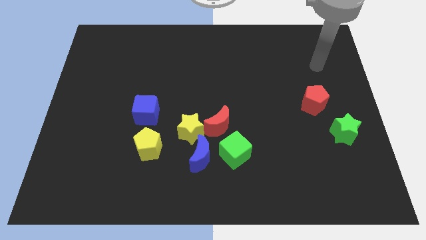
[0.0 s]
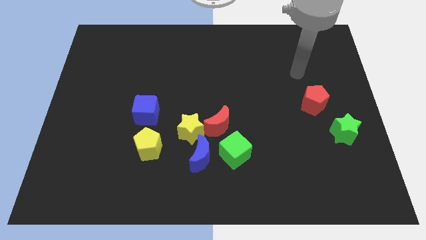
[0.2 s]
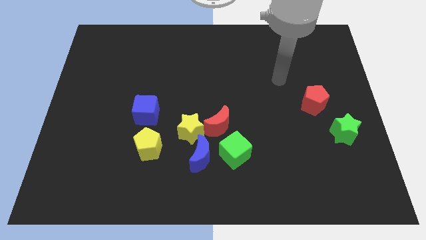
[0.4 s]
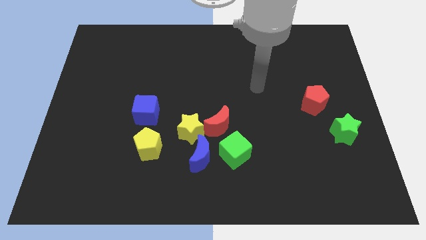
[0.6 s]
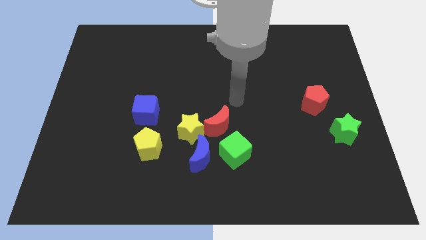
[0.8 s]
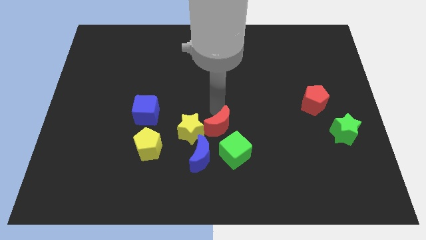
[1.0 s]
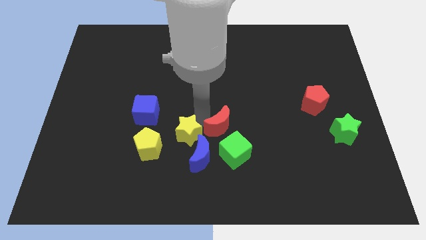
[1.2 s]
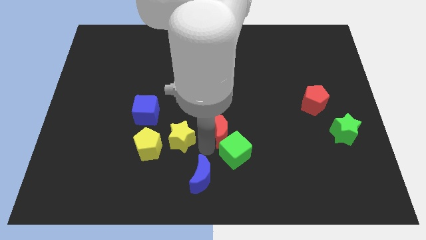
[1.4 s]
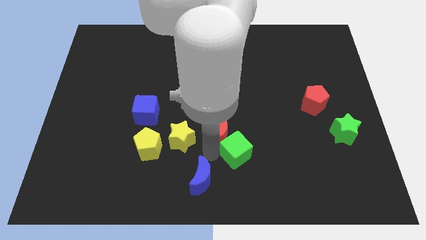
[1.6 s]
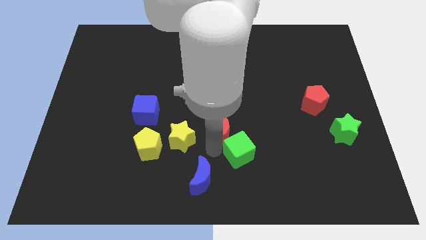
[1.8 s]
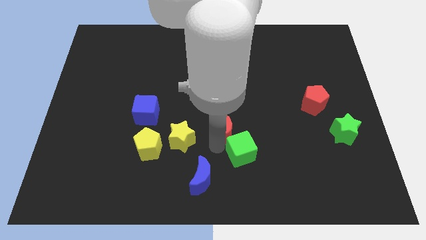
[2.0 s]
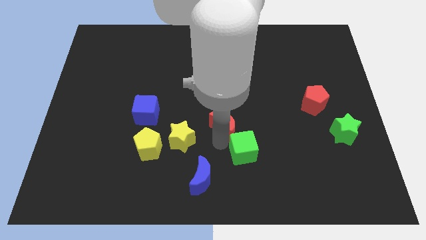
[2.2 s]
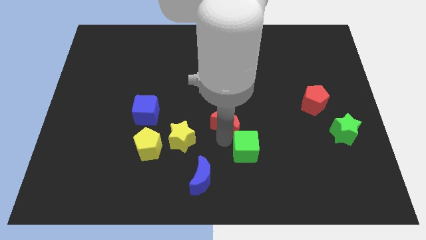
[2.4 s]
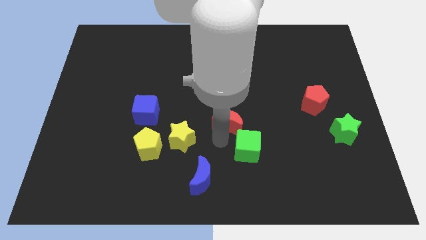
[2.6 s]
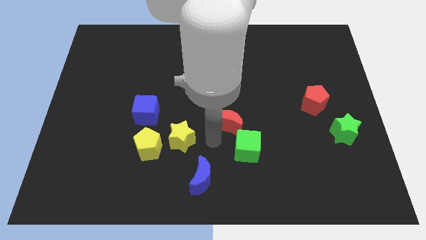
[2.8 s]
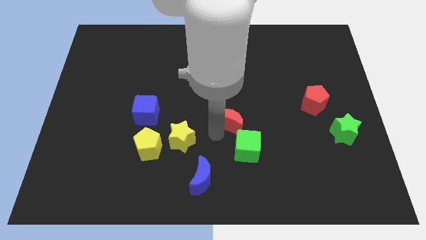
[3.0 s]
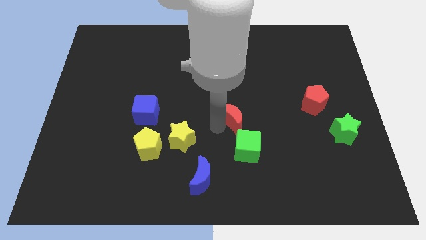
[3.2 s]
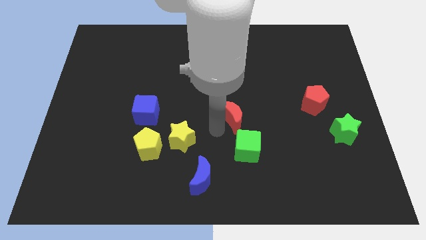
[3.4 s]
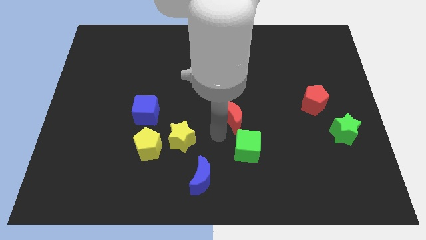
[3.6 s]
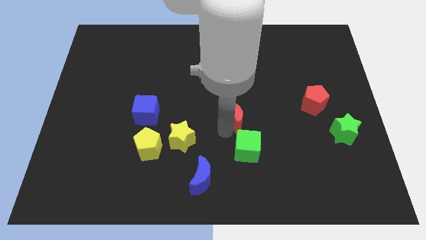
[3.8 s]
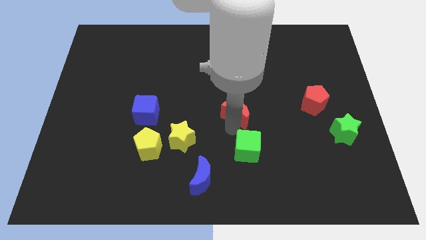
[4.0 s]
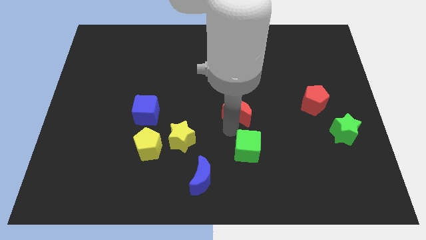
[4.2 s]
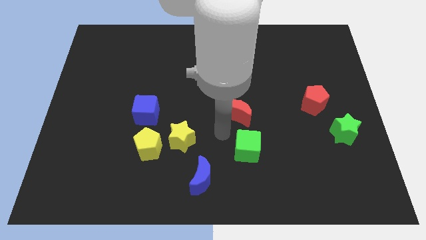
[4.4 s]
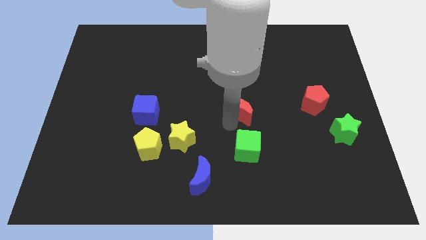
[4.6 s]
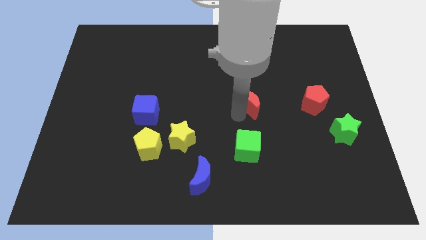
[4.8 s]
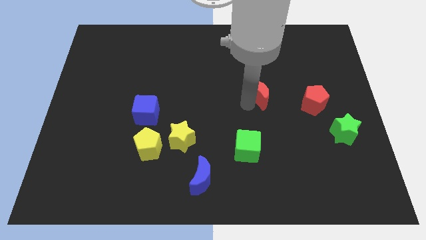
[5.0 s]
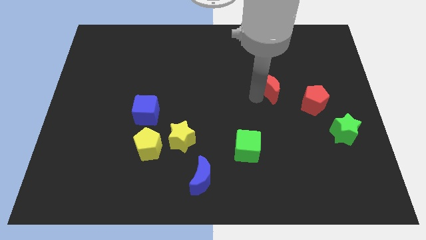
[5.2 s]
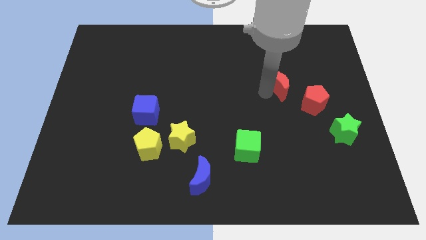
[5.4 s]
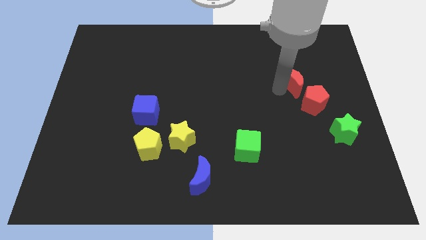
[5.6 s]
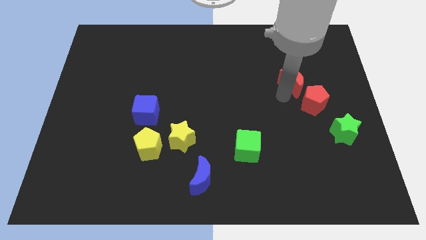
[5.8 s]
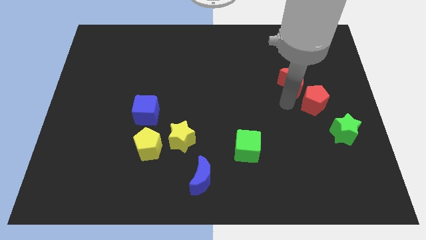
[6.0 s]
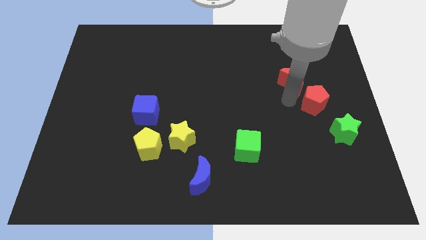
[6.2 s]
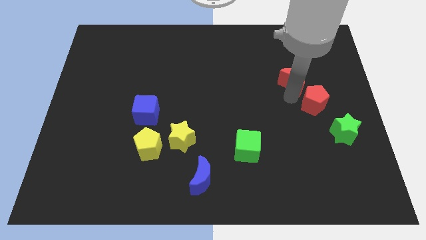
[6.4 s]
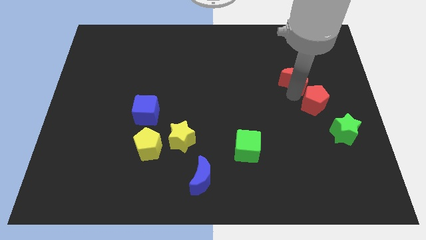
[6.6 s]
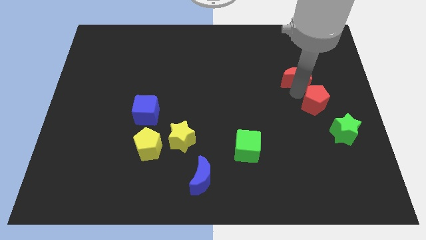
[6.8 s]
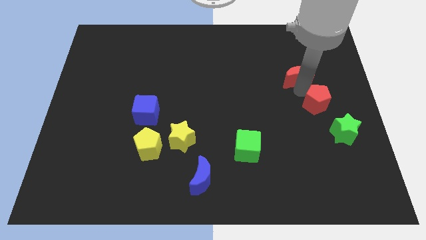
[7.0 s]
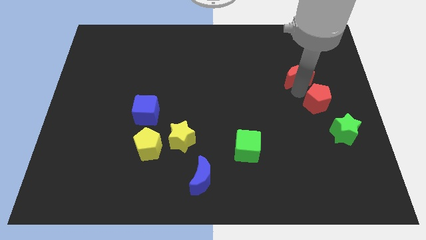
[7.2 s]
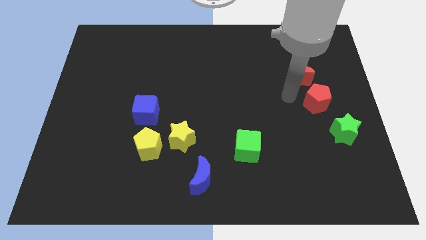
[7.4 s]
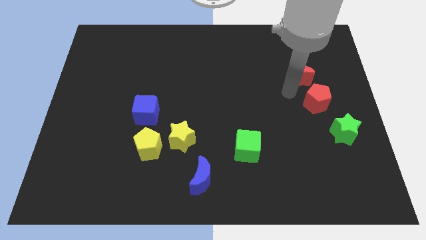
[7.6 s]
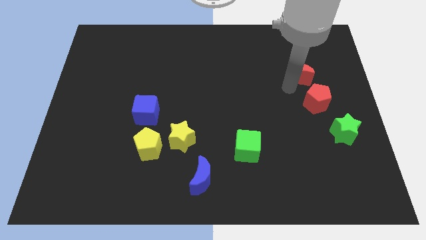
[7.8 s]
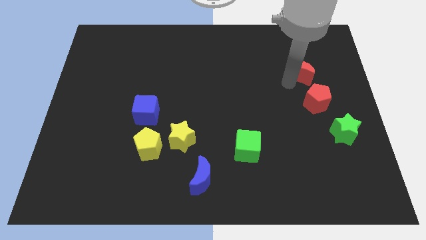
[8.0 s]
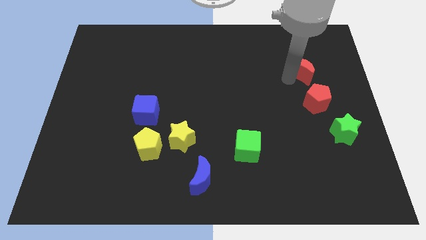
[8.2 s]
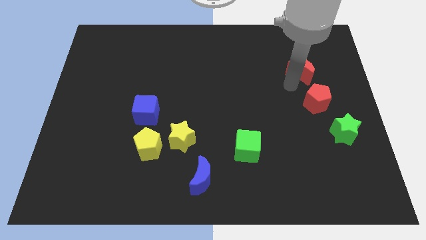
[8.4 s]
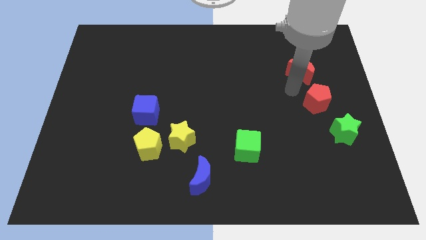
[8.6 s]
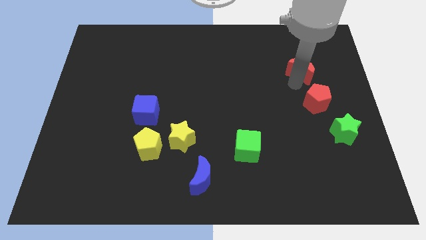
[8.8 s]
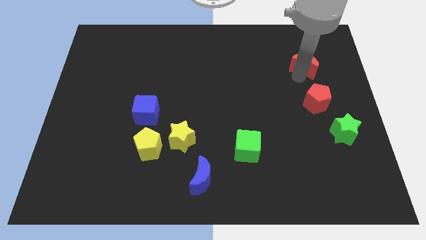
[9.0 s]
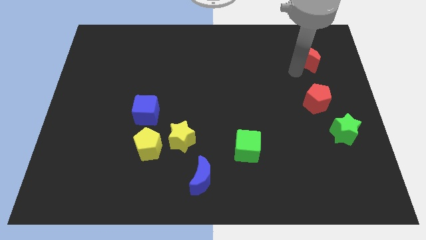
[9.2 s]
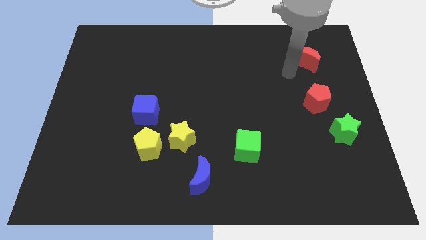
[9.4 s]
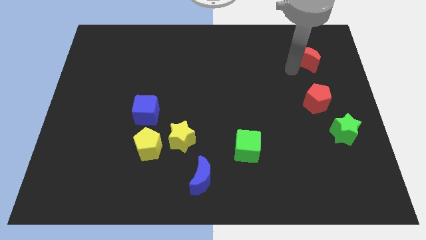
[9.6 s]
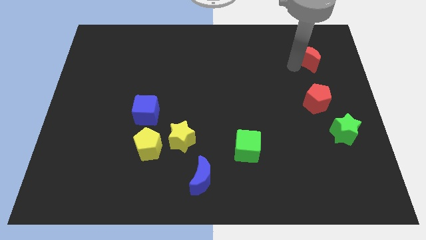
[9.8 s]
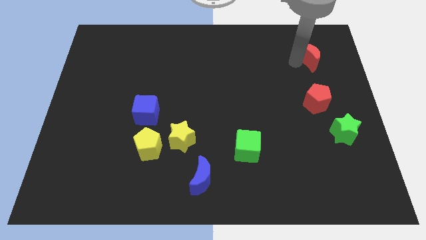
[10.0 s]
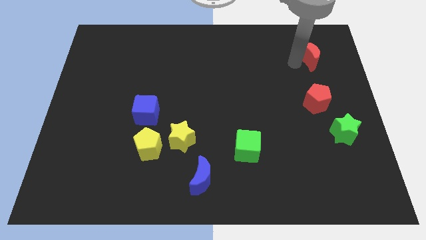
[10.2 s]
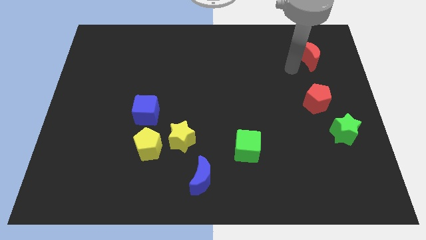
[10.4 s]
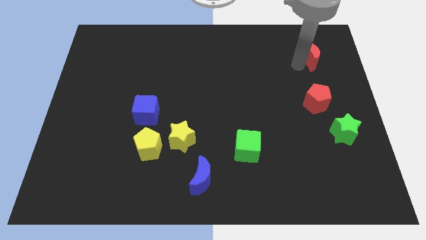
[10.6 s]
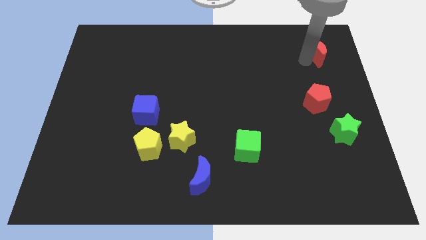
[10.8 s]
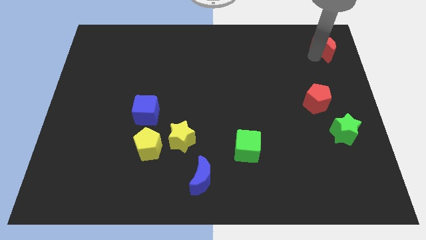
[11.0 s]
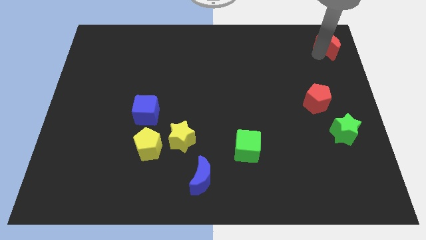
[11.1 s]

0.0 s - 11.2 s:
push the red moon to the top right

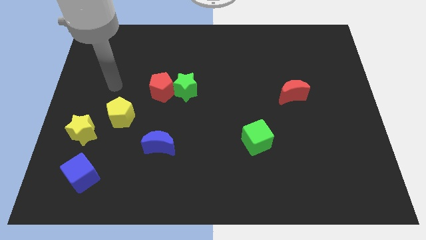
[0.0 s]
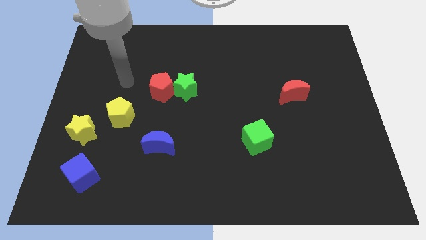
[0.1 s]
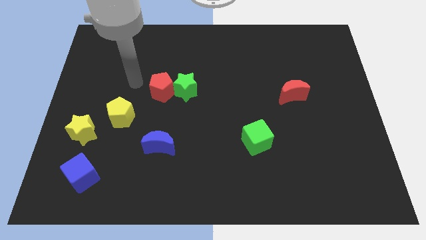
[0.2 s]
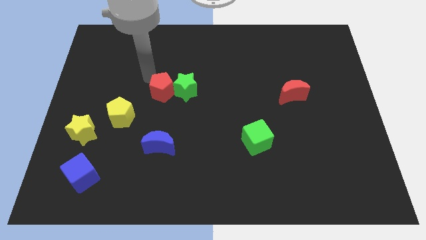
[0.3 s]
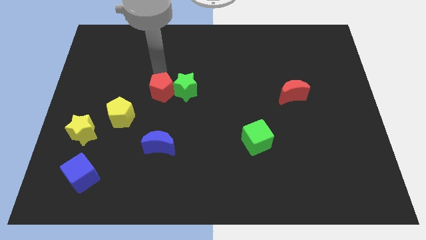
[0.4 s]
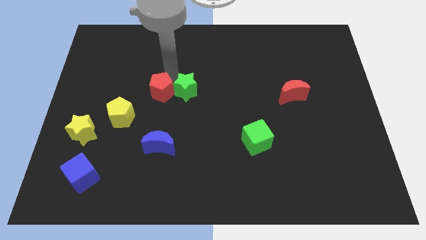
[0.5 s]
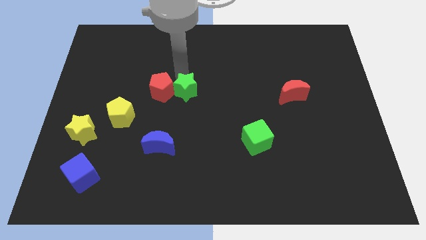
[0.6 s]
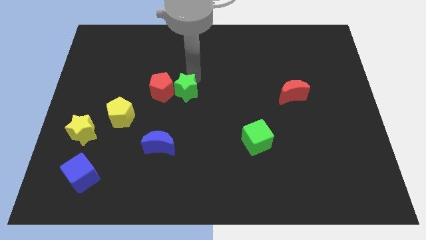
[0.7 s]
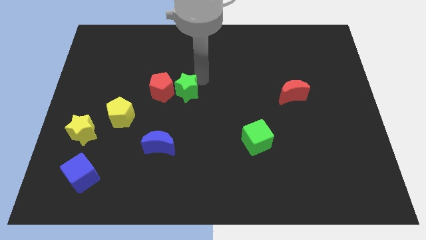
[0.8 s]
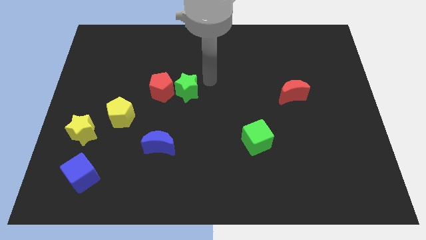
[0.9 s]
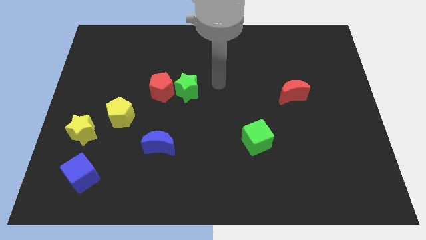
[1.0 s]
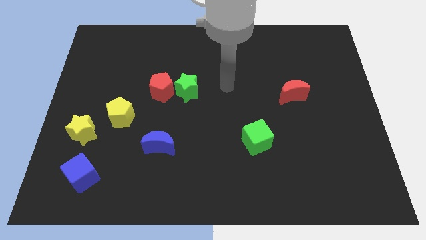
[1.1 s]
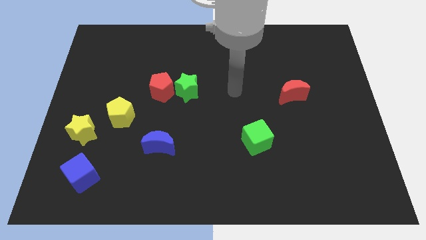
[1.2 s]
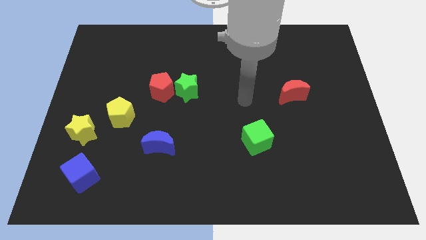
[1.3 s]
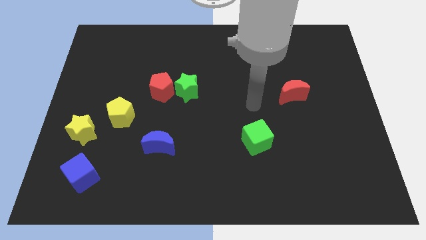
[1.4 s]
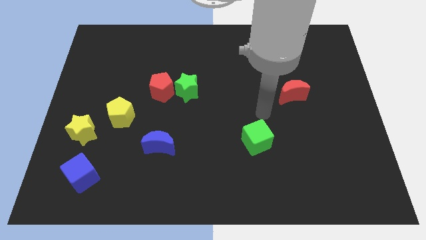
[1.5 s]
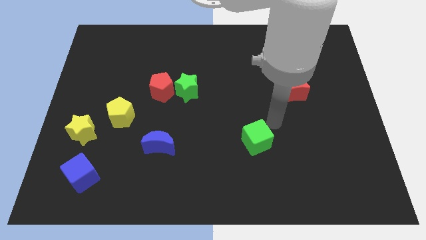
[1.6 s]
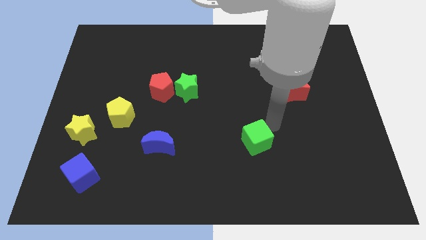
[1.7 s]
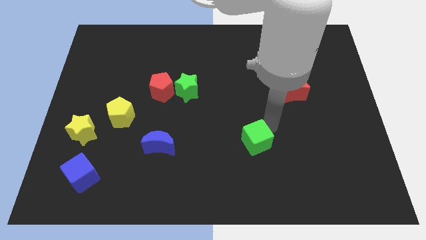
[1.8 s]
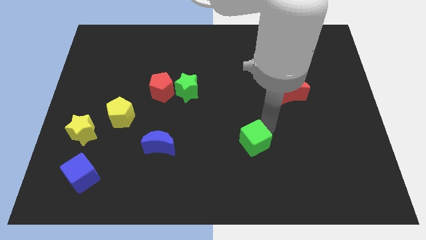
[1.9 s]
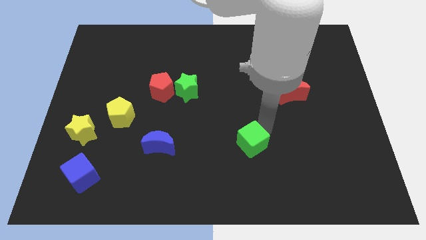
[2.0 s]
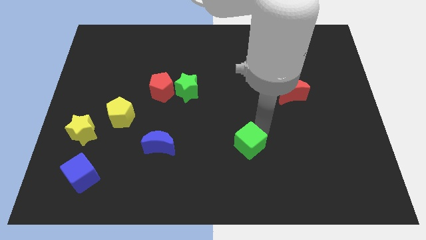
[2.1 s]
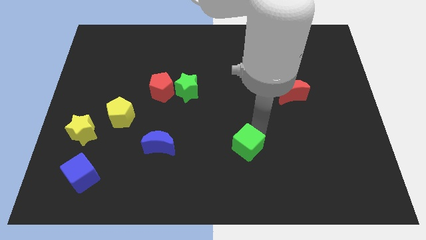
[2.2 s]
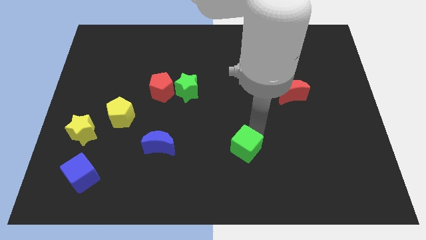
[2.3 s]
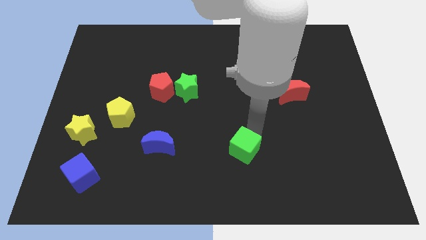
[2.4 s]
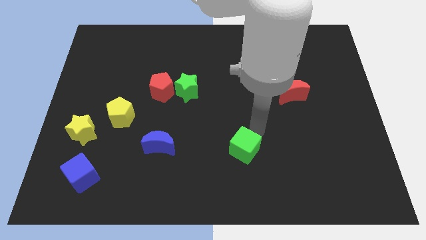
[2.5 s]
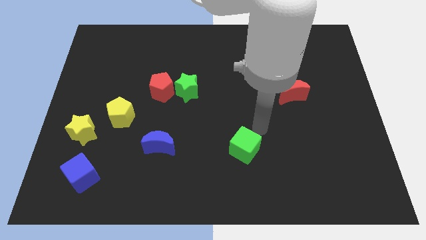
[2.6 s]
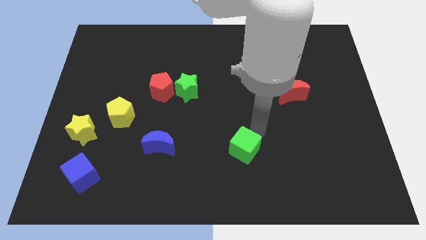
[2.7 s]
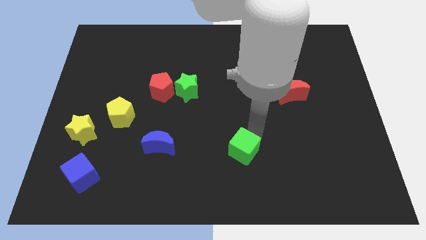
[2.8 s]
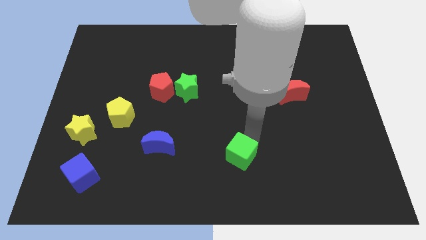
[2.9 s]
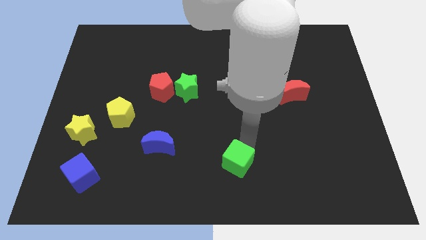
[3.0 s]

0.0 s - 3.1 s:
move the green cube to the bottom
